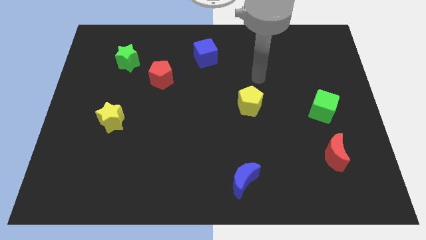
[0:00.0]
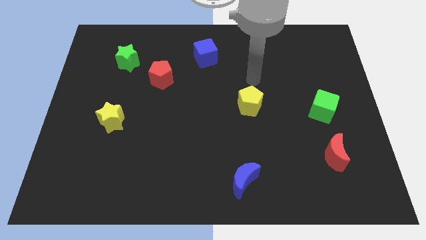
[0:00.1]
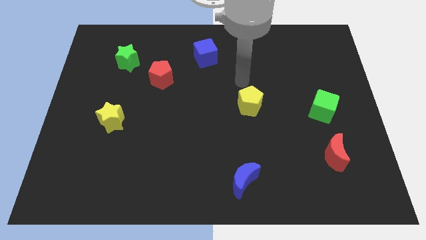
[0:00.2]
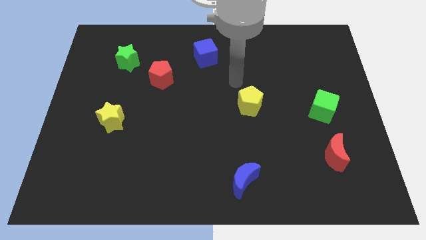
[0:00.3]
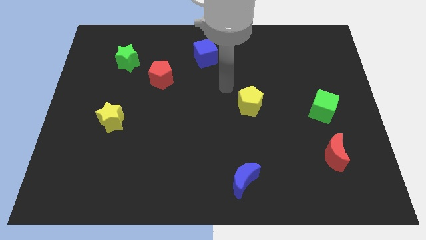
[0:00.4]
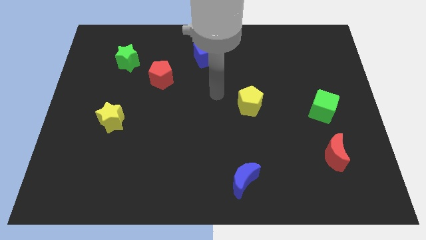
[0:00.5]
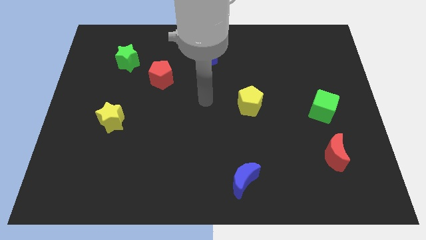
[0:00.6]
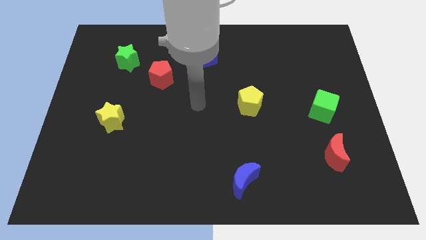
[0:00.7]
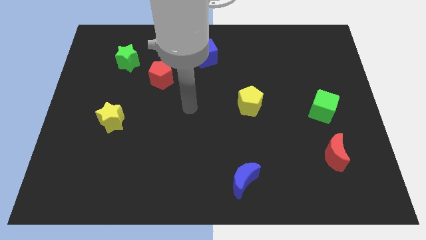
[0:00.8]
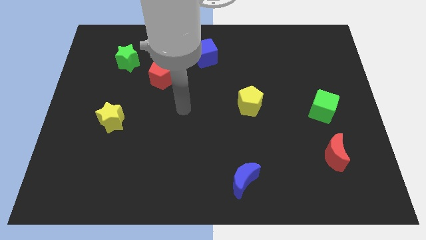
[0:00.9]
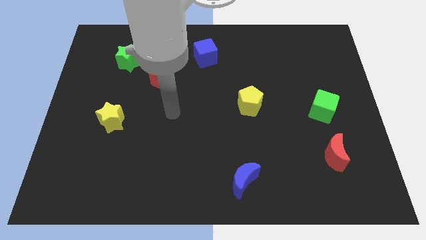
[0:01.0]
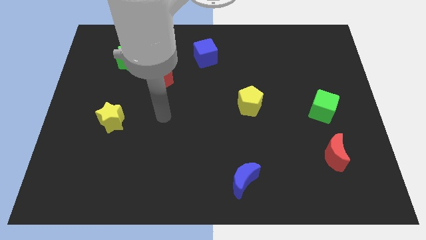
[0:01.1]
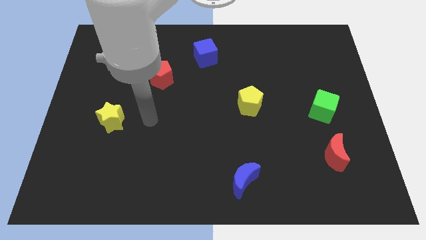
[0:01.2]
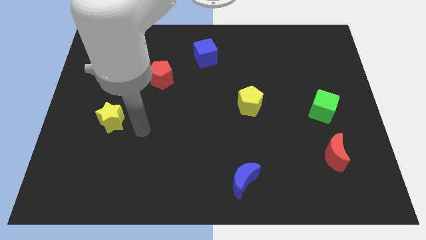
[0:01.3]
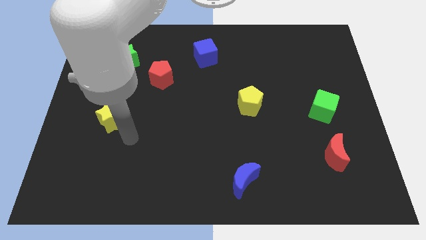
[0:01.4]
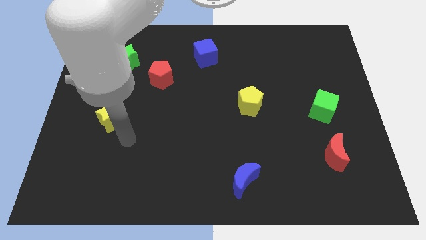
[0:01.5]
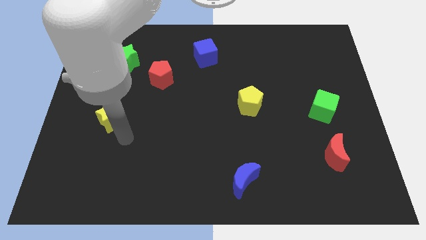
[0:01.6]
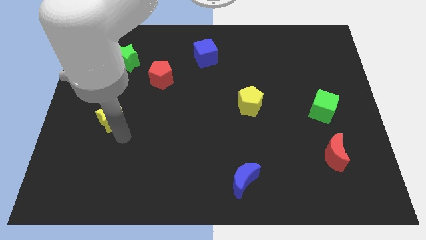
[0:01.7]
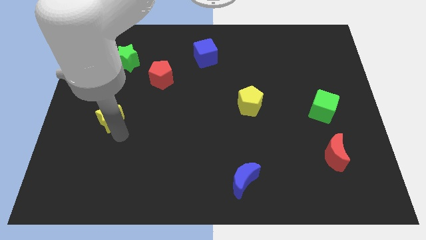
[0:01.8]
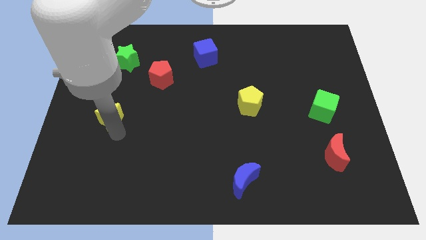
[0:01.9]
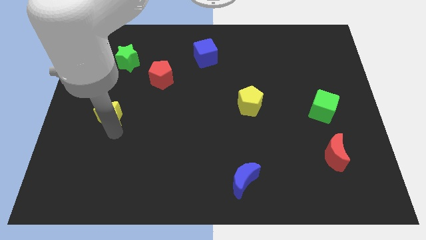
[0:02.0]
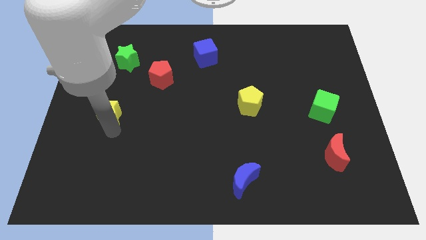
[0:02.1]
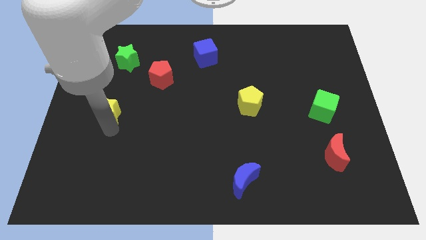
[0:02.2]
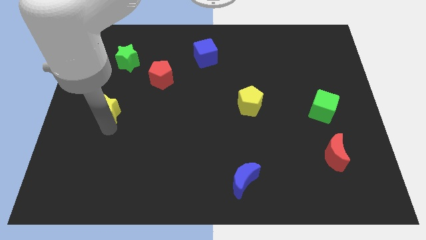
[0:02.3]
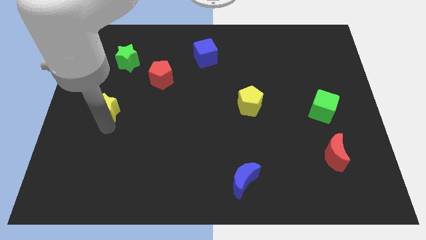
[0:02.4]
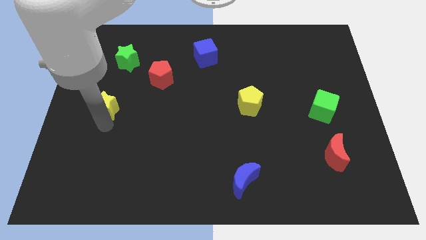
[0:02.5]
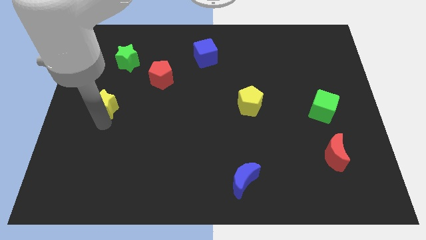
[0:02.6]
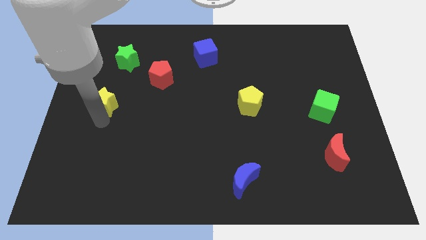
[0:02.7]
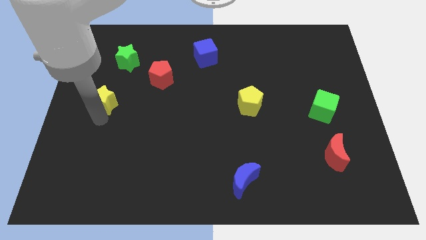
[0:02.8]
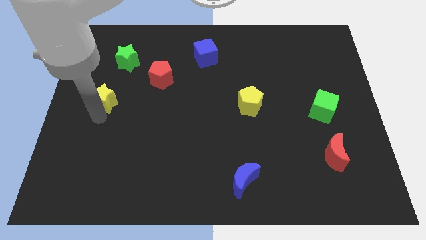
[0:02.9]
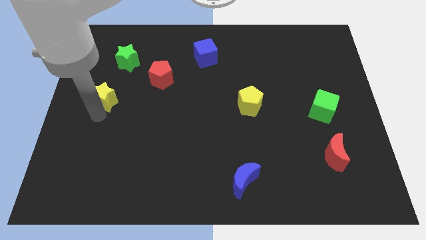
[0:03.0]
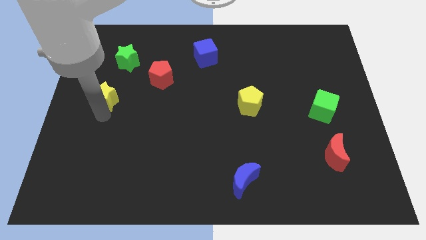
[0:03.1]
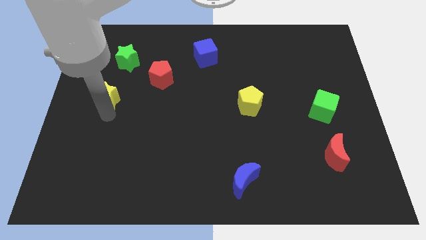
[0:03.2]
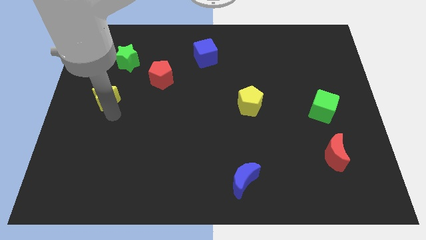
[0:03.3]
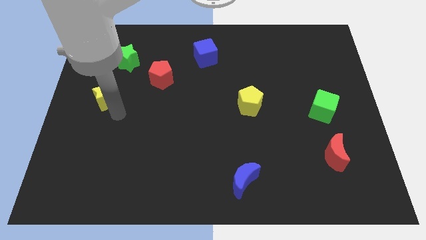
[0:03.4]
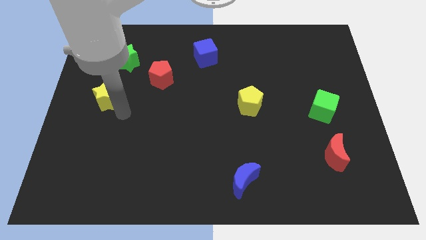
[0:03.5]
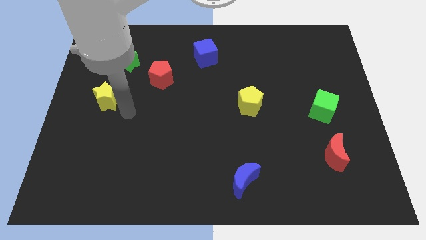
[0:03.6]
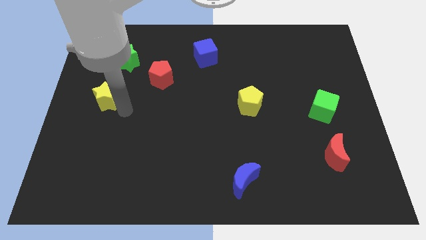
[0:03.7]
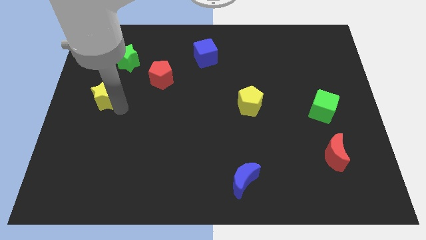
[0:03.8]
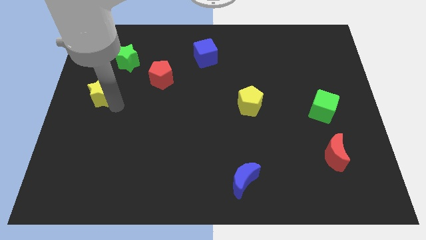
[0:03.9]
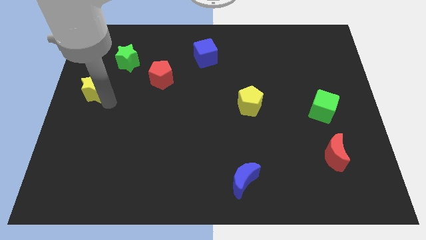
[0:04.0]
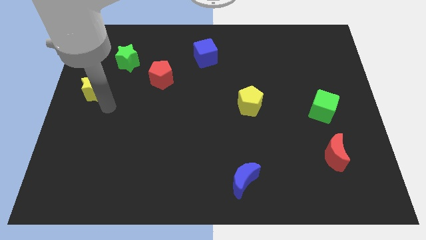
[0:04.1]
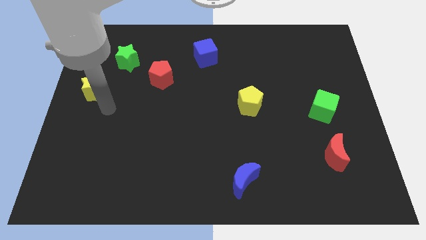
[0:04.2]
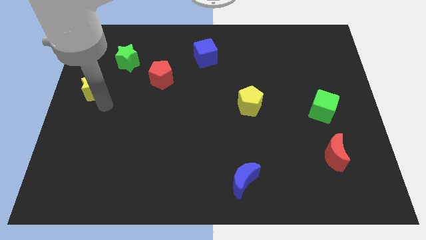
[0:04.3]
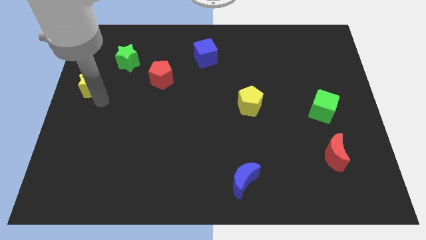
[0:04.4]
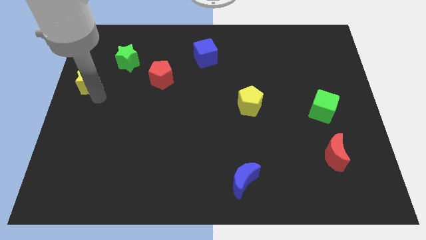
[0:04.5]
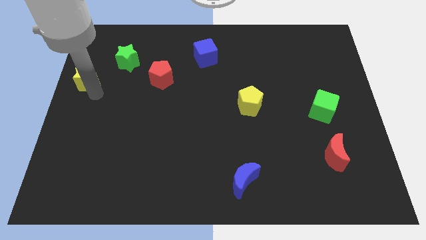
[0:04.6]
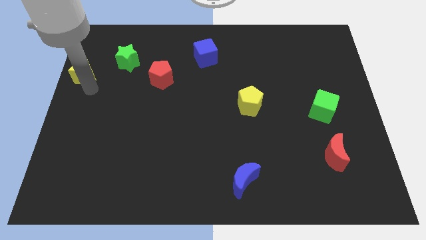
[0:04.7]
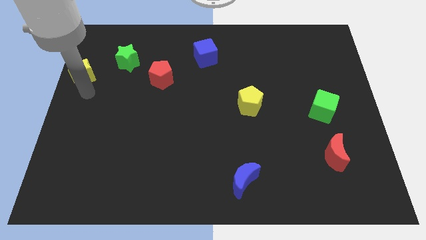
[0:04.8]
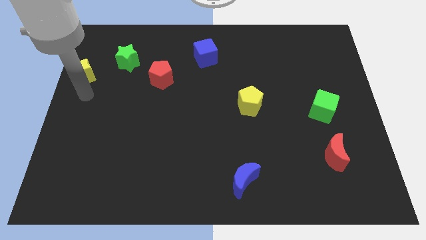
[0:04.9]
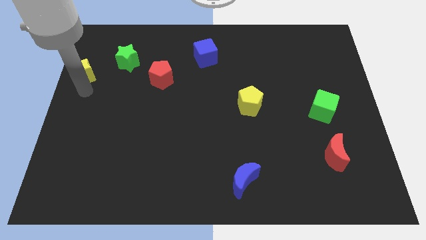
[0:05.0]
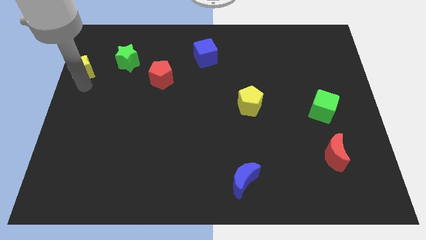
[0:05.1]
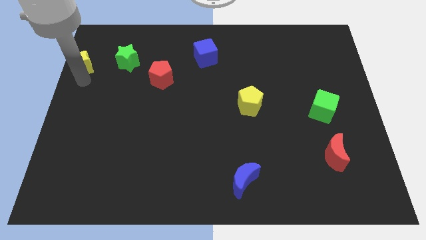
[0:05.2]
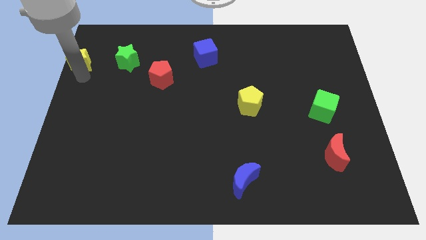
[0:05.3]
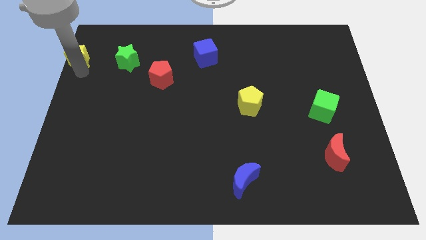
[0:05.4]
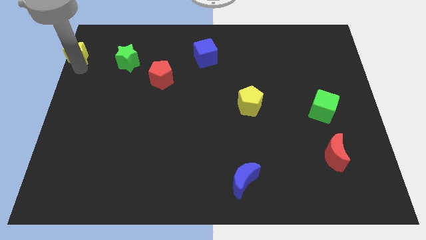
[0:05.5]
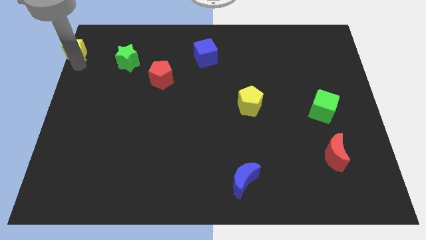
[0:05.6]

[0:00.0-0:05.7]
slide the yellow star to the top left
